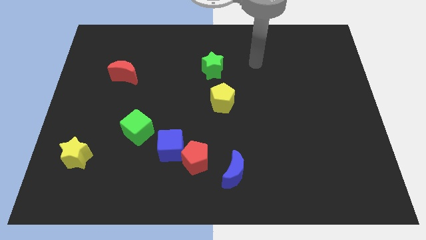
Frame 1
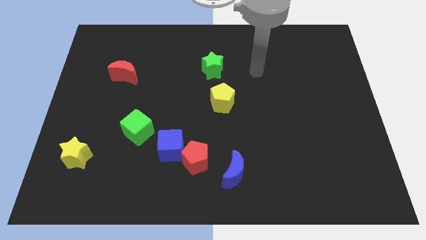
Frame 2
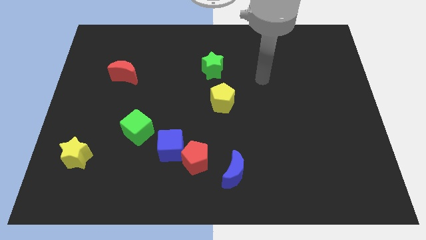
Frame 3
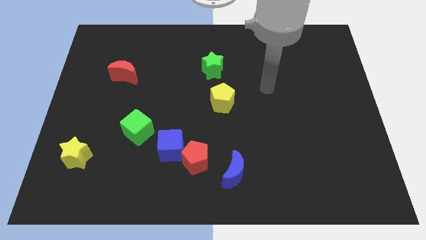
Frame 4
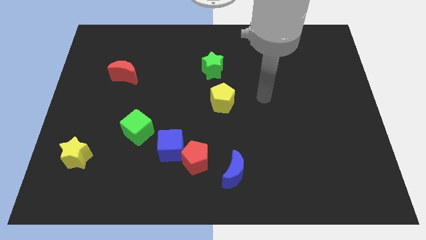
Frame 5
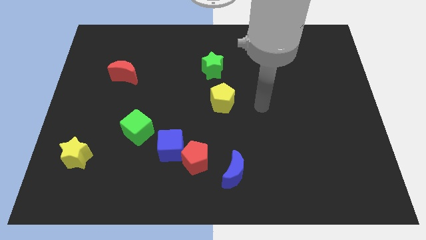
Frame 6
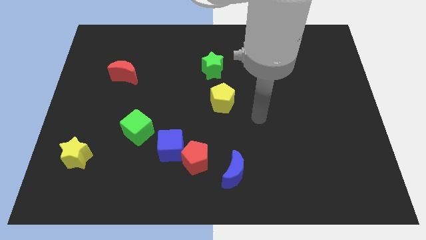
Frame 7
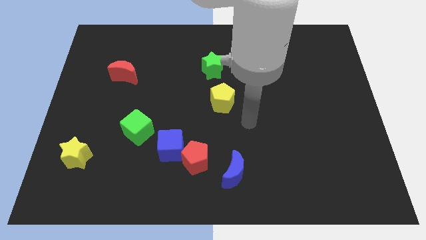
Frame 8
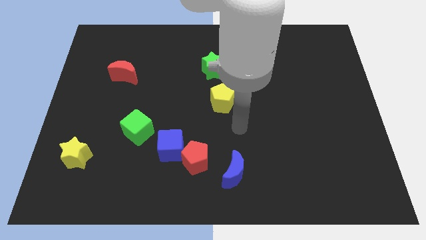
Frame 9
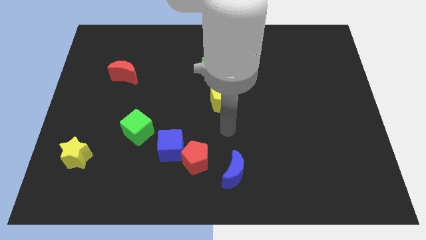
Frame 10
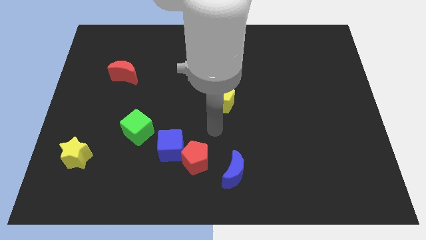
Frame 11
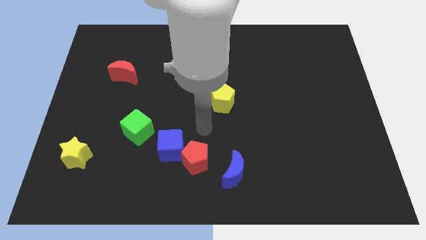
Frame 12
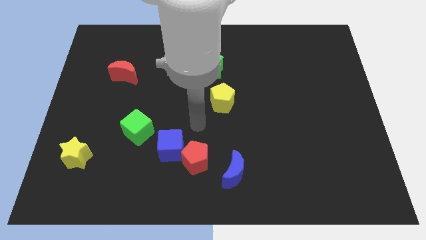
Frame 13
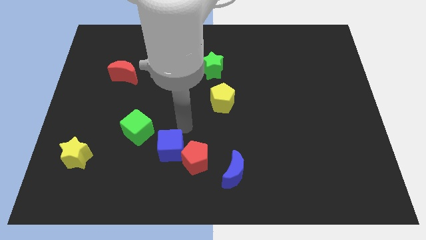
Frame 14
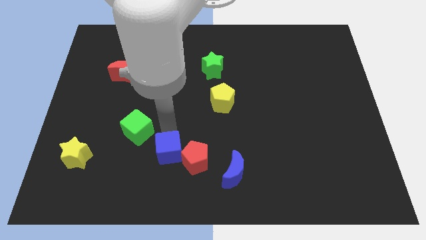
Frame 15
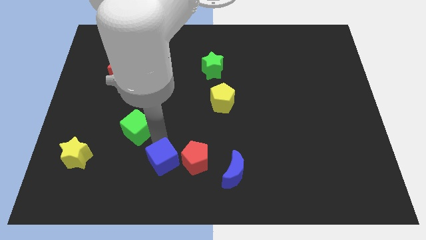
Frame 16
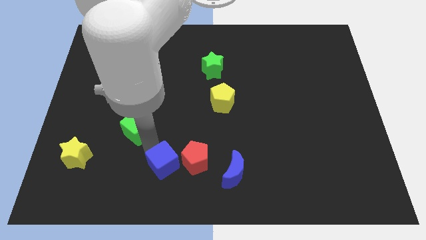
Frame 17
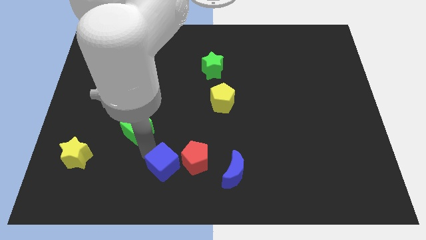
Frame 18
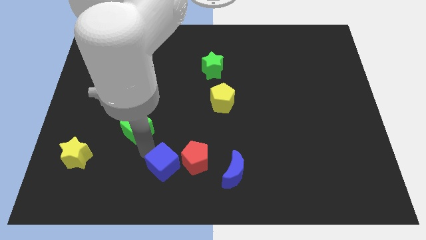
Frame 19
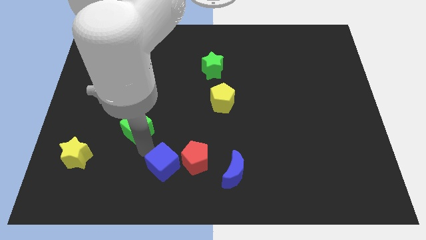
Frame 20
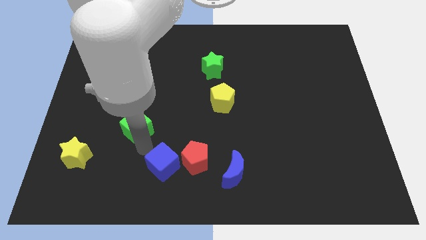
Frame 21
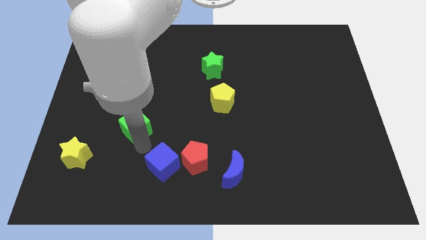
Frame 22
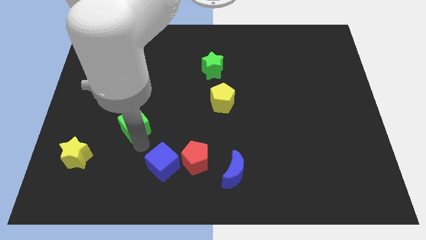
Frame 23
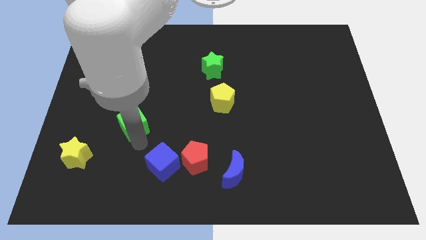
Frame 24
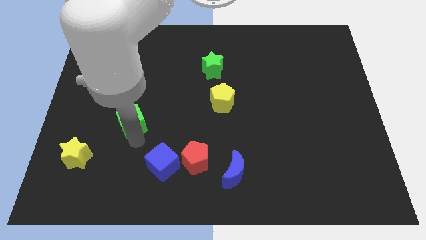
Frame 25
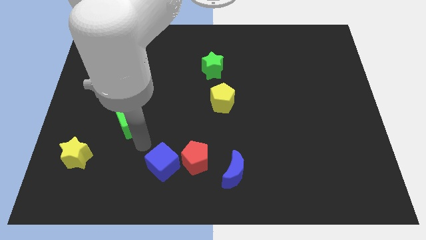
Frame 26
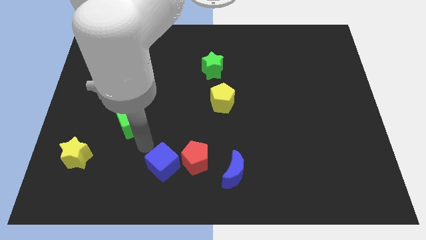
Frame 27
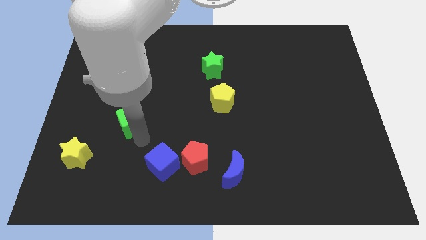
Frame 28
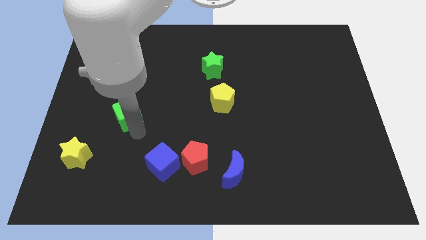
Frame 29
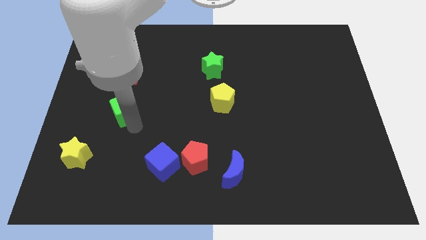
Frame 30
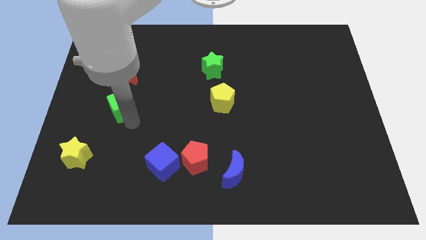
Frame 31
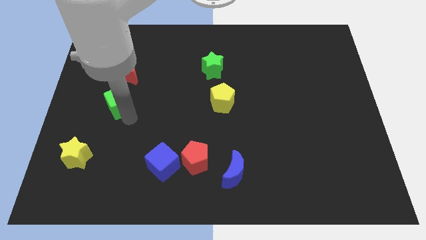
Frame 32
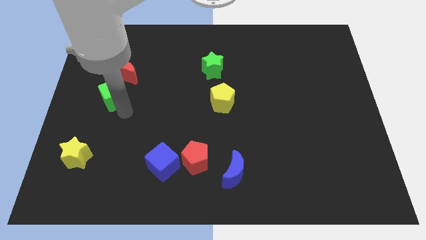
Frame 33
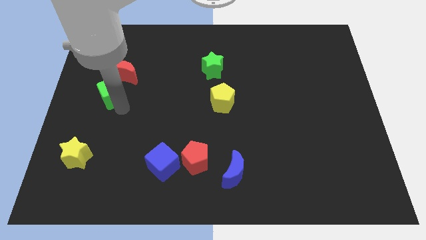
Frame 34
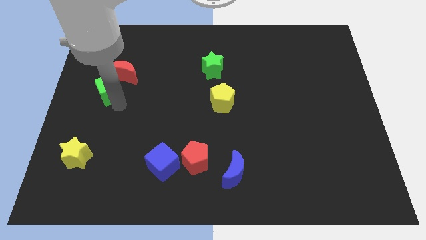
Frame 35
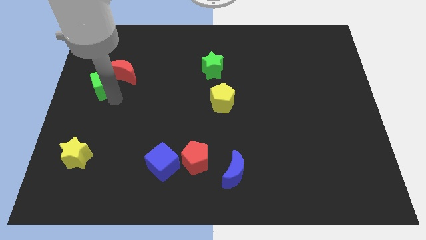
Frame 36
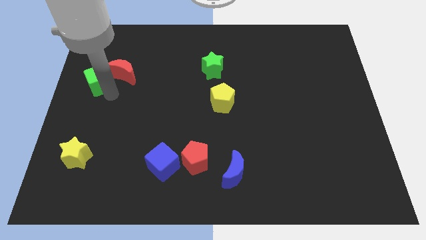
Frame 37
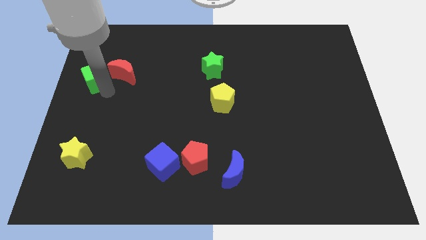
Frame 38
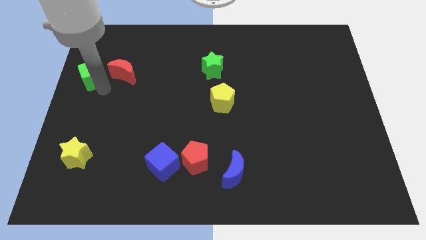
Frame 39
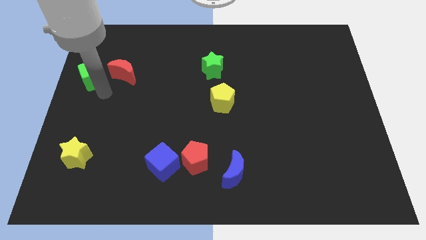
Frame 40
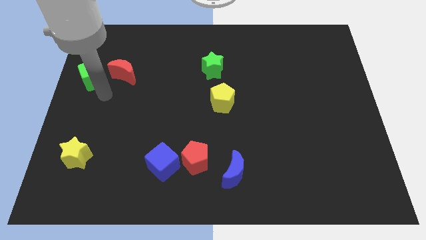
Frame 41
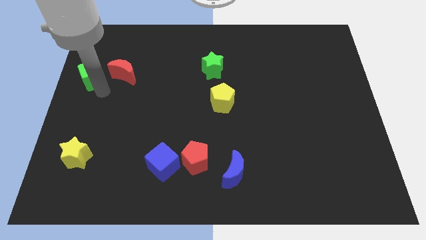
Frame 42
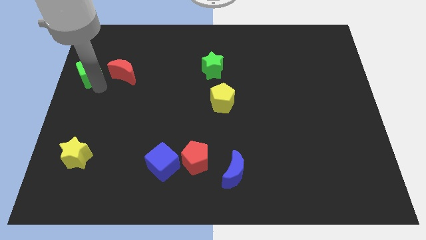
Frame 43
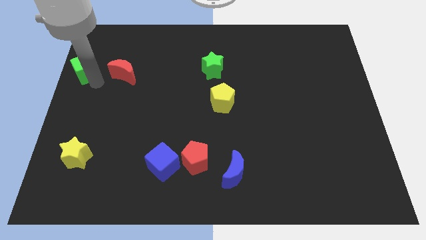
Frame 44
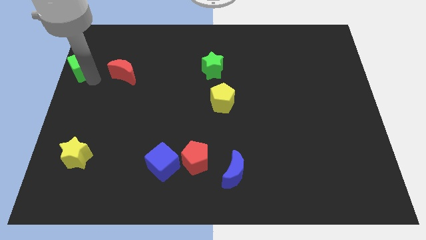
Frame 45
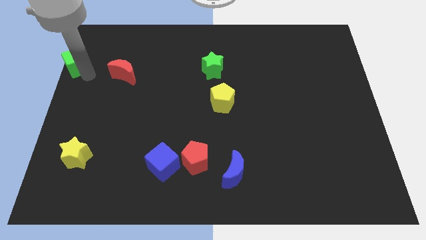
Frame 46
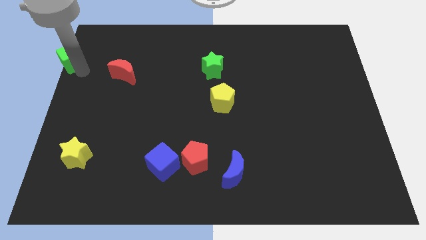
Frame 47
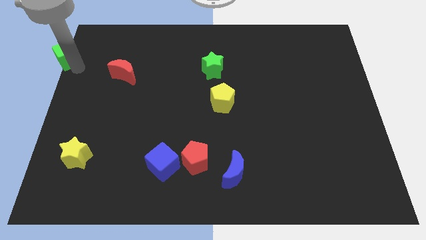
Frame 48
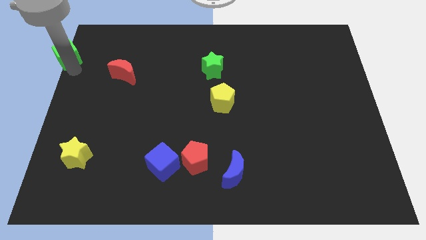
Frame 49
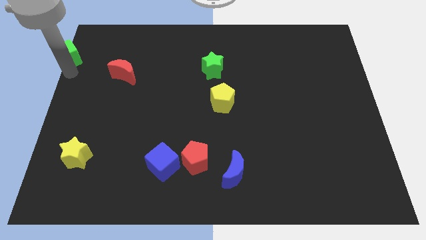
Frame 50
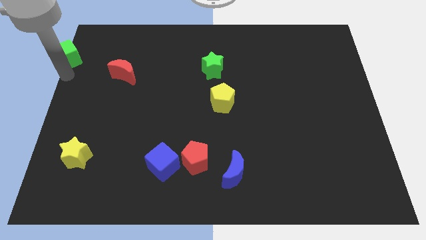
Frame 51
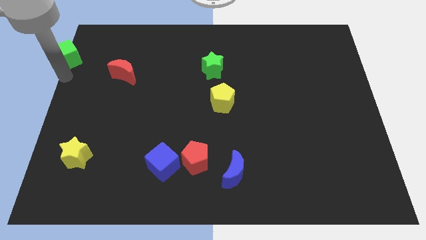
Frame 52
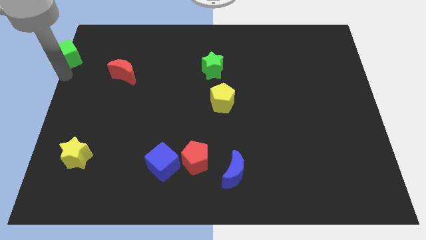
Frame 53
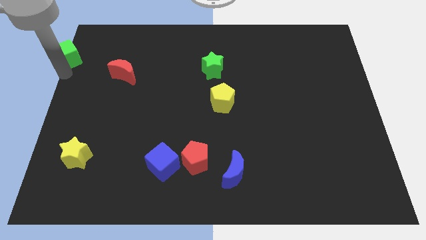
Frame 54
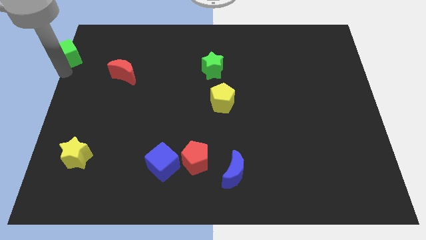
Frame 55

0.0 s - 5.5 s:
slide the green cube to the top left

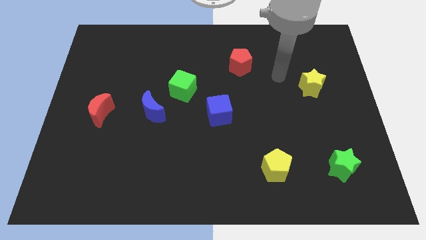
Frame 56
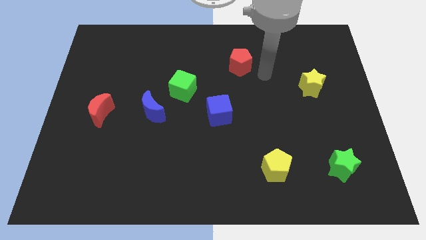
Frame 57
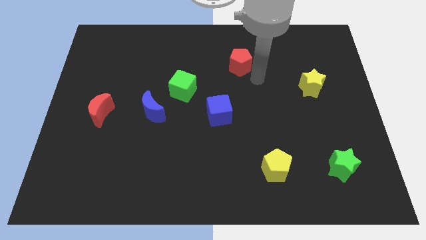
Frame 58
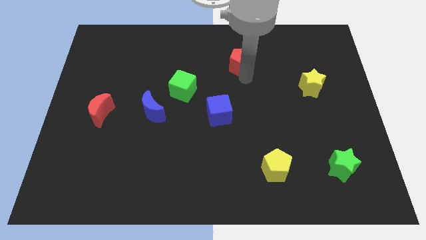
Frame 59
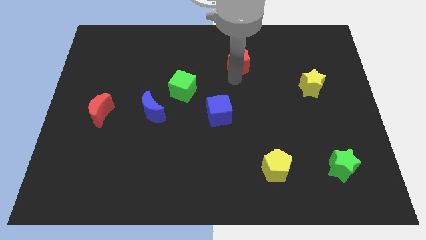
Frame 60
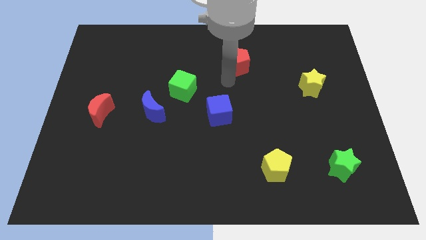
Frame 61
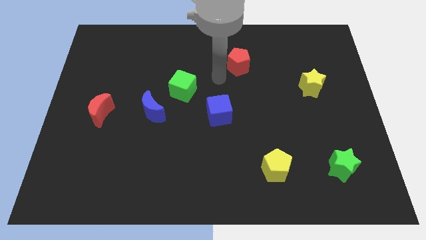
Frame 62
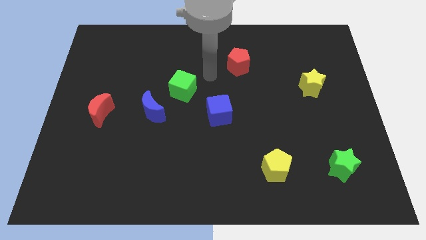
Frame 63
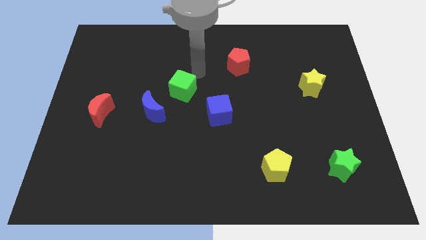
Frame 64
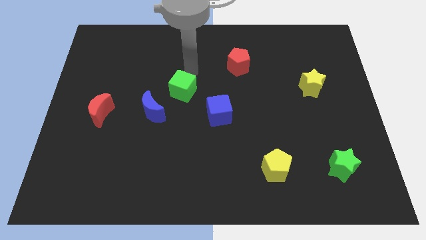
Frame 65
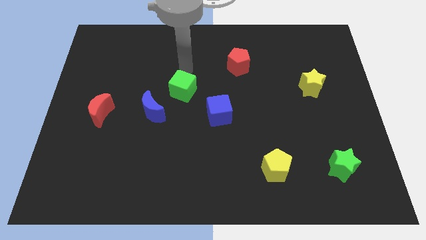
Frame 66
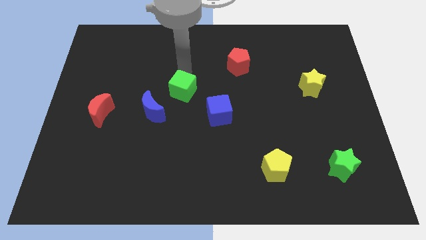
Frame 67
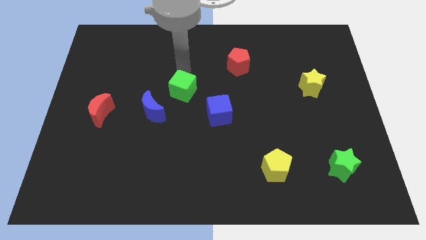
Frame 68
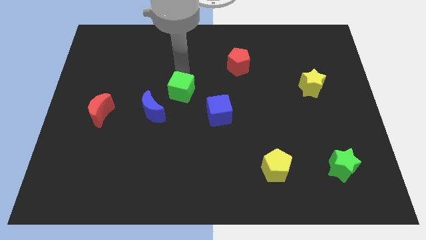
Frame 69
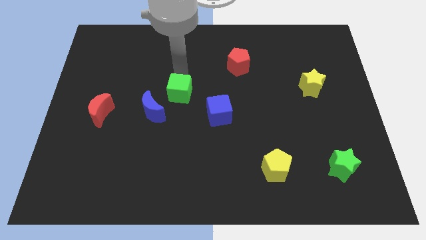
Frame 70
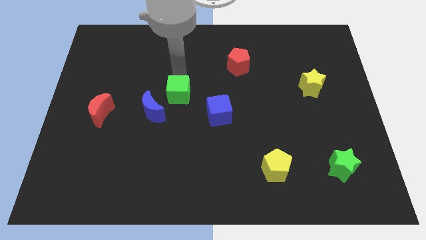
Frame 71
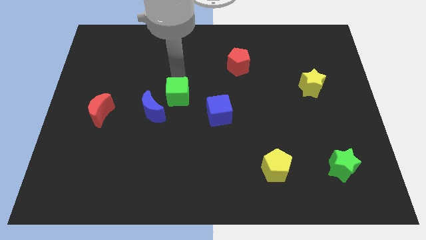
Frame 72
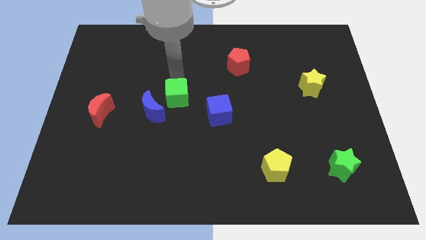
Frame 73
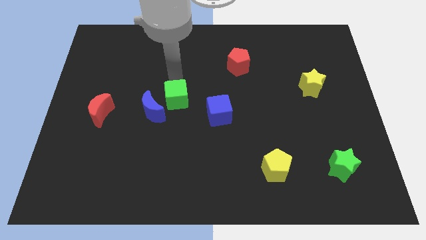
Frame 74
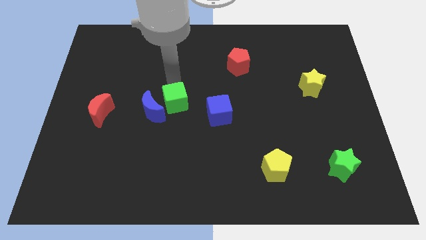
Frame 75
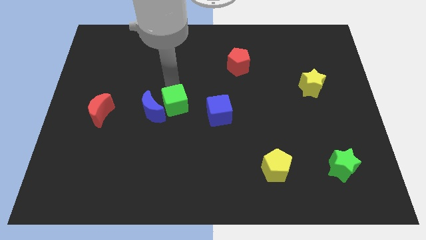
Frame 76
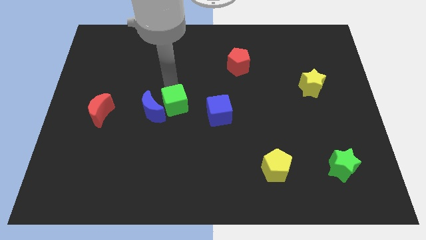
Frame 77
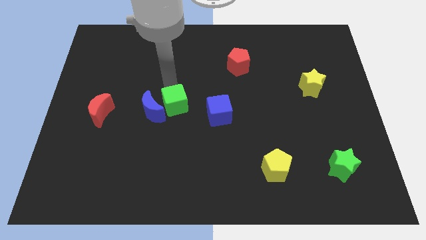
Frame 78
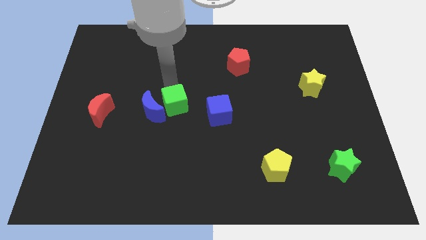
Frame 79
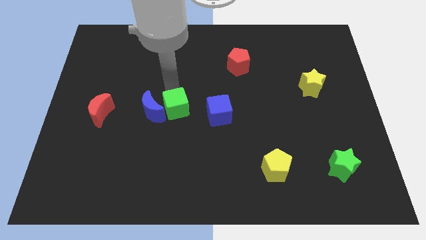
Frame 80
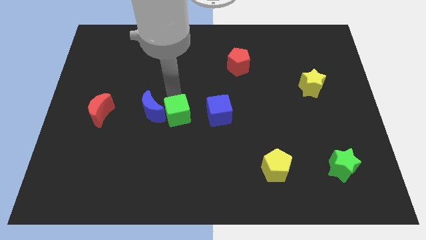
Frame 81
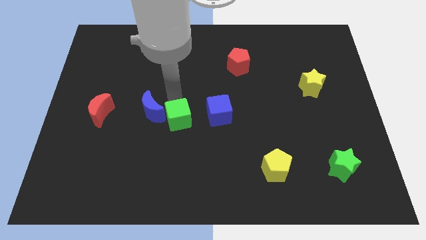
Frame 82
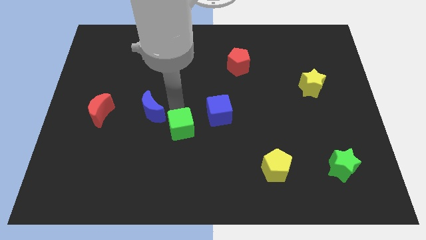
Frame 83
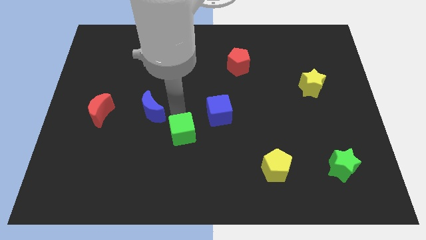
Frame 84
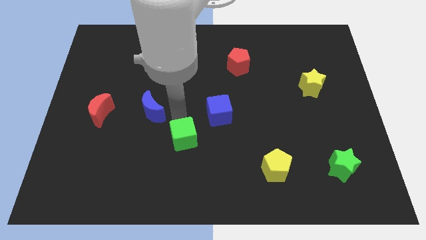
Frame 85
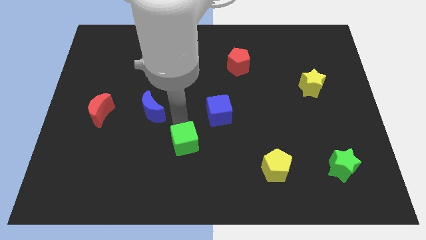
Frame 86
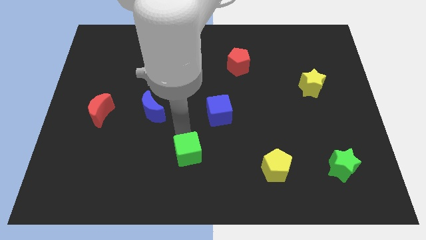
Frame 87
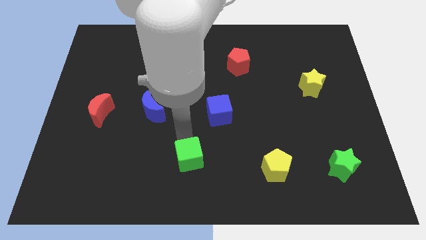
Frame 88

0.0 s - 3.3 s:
slide the green cube to the bottom side
